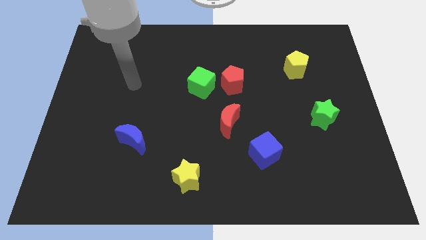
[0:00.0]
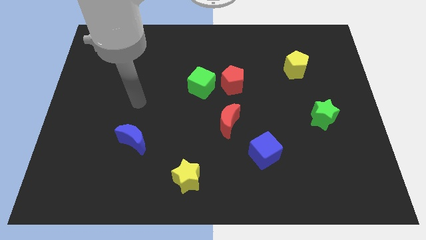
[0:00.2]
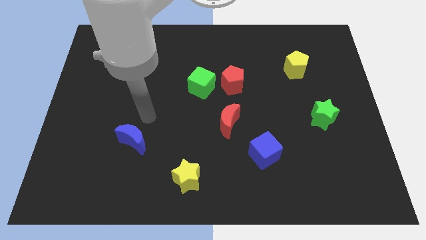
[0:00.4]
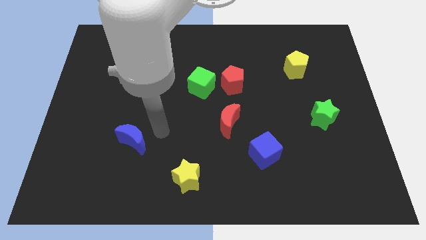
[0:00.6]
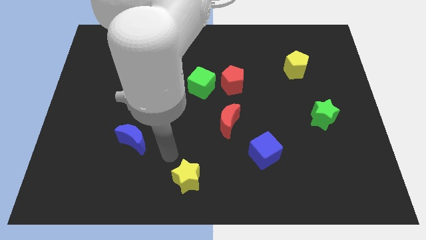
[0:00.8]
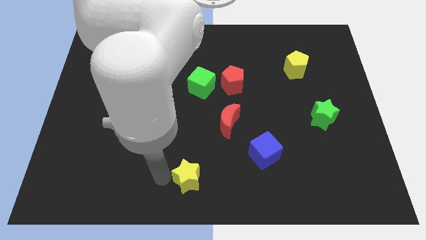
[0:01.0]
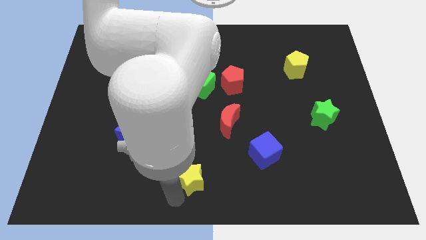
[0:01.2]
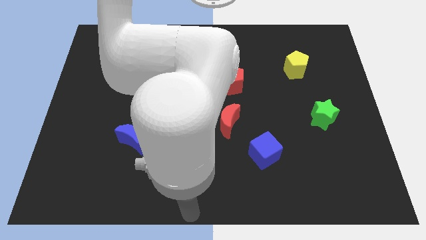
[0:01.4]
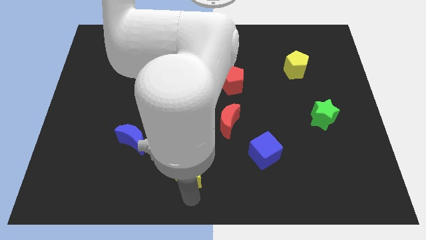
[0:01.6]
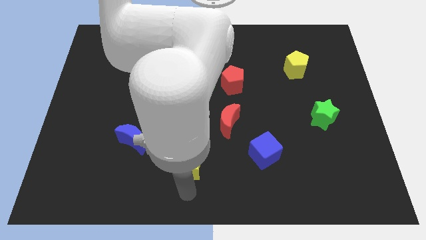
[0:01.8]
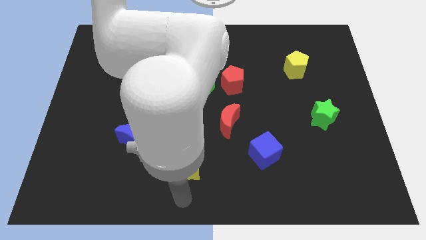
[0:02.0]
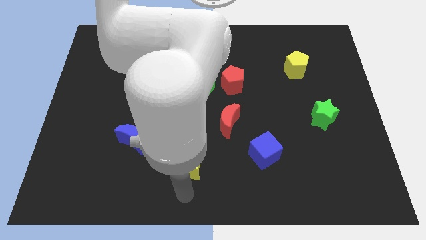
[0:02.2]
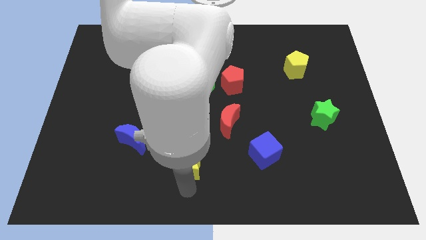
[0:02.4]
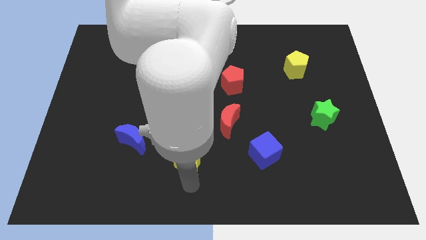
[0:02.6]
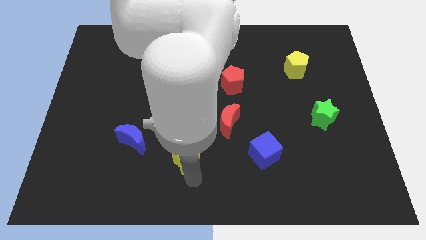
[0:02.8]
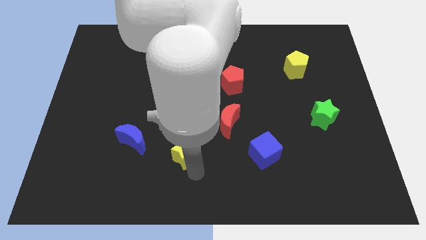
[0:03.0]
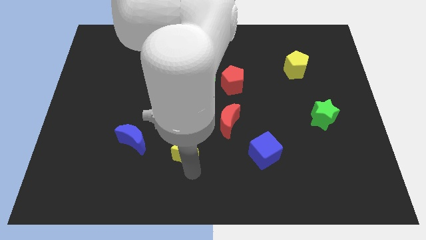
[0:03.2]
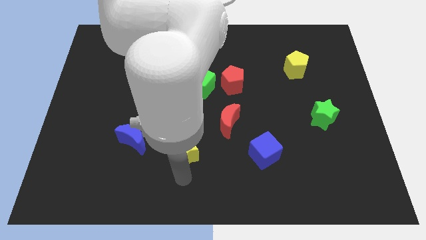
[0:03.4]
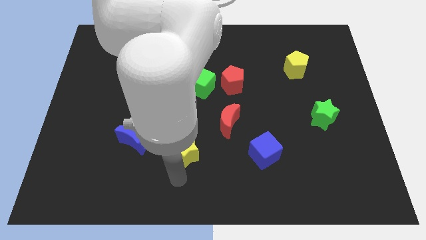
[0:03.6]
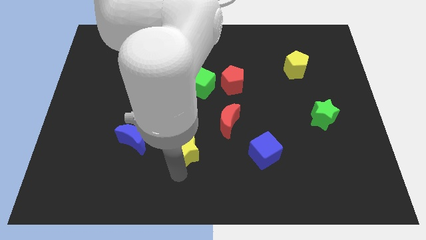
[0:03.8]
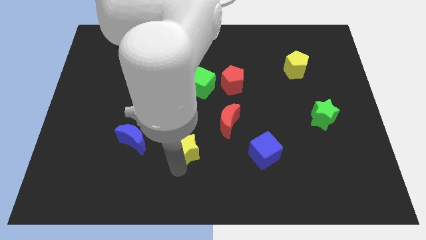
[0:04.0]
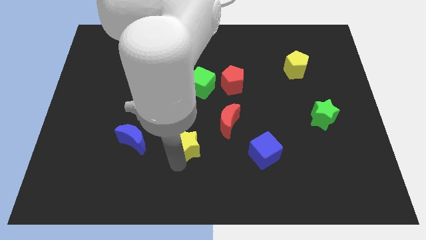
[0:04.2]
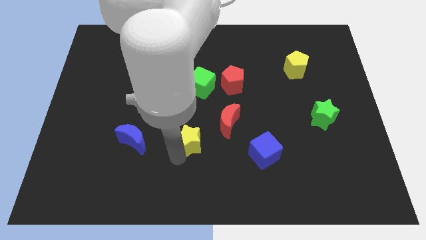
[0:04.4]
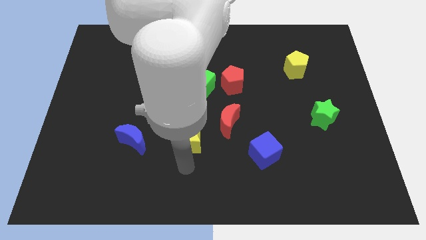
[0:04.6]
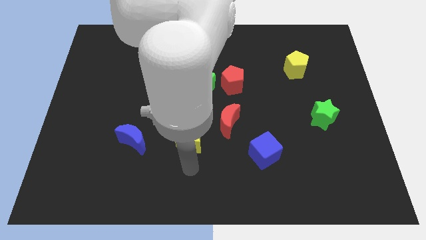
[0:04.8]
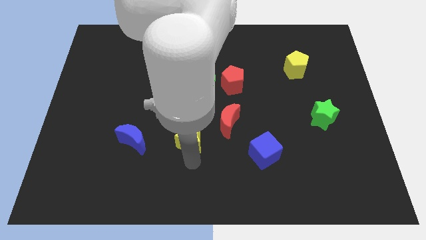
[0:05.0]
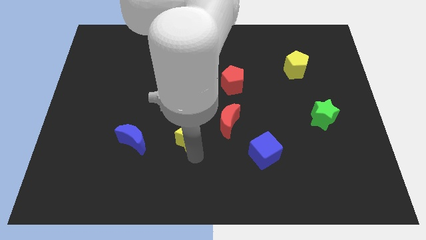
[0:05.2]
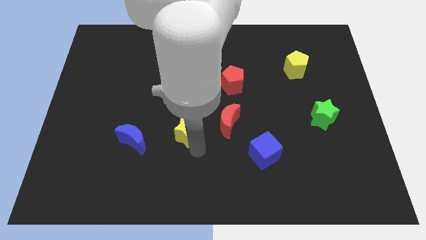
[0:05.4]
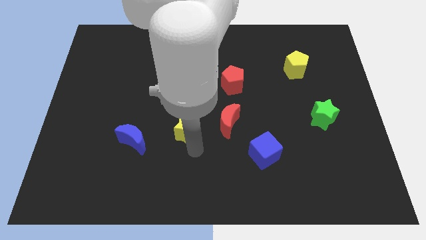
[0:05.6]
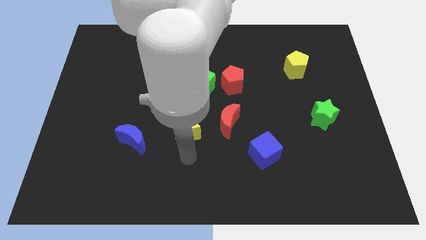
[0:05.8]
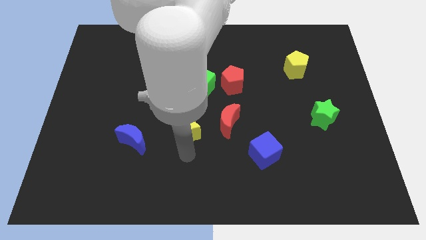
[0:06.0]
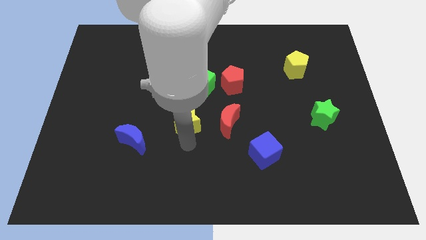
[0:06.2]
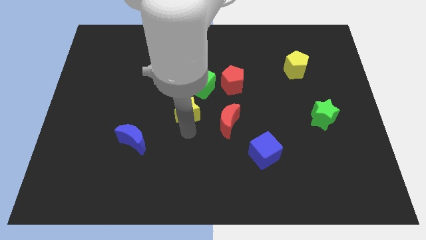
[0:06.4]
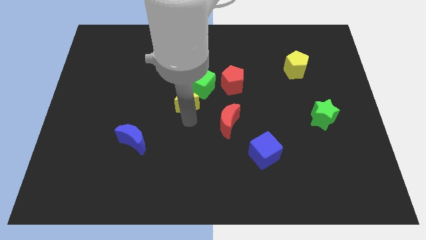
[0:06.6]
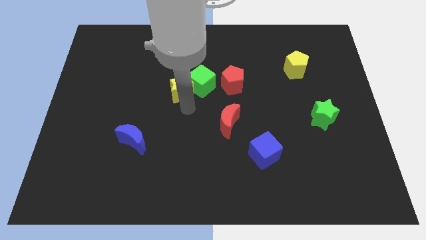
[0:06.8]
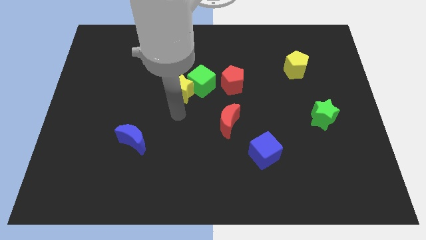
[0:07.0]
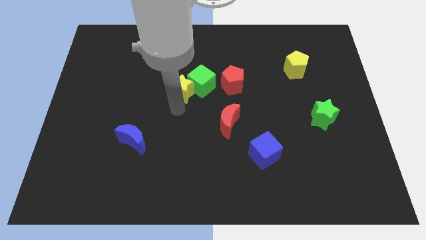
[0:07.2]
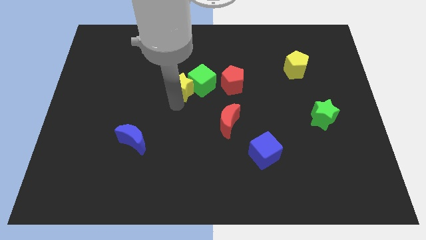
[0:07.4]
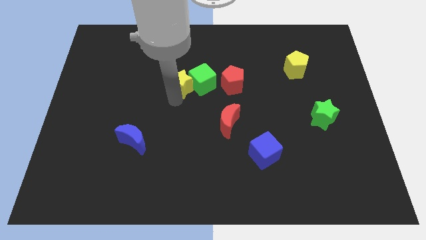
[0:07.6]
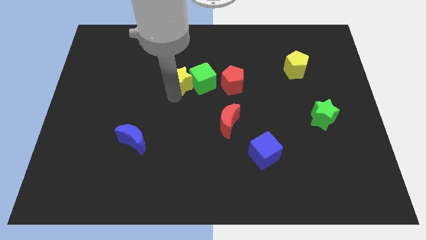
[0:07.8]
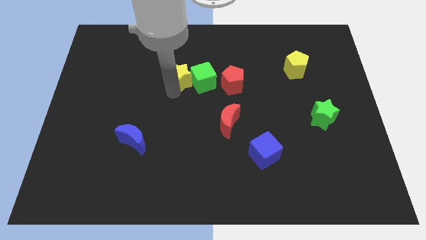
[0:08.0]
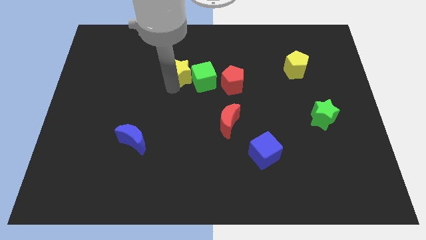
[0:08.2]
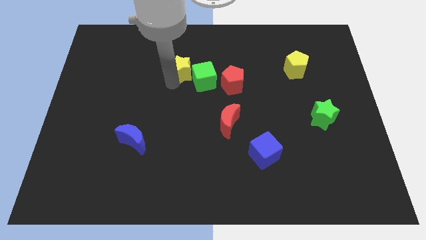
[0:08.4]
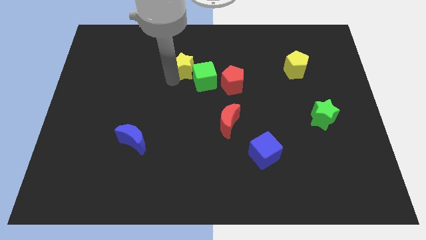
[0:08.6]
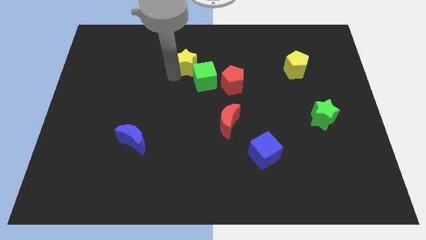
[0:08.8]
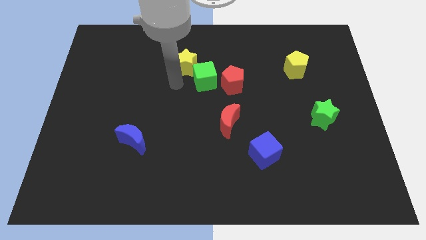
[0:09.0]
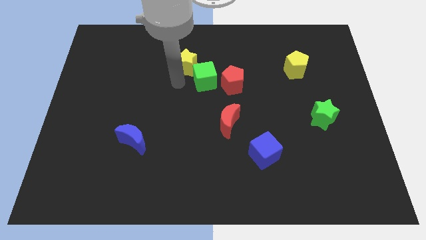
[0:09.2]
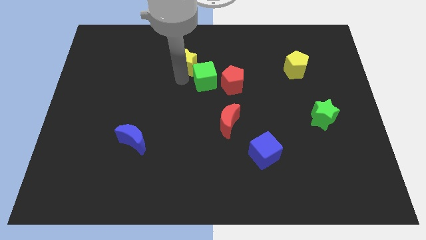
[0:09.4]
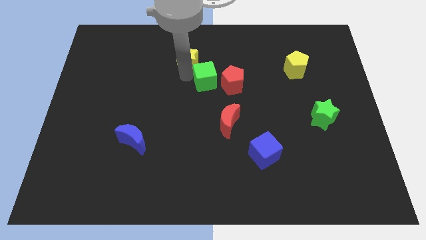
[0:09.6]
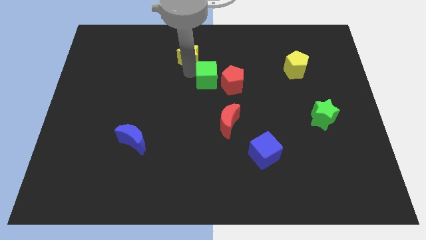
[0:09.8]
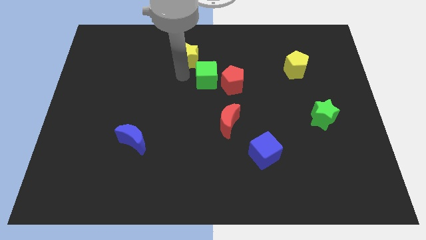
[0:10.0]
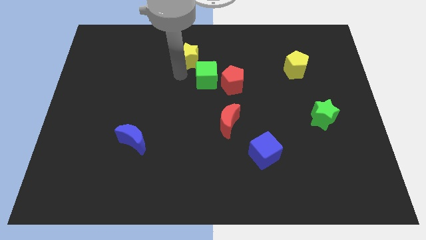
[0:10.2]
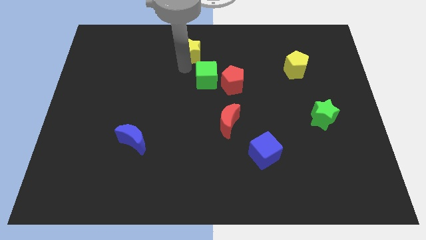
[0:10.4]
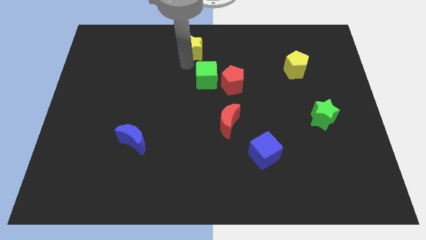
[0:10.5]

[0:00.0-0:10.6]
put the yellow star to the towards your base
